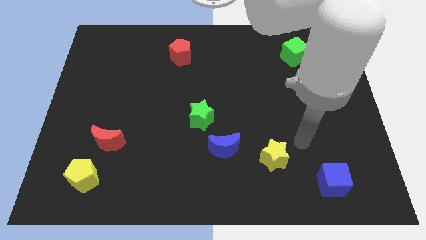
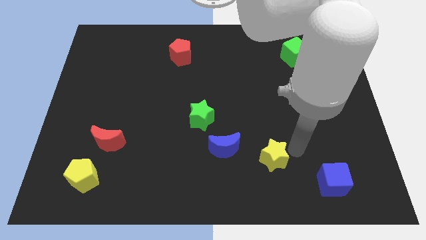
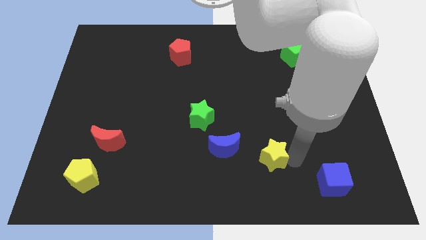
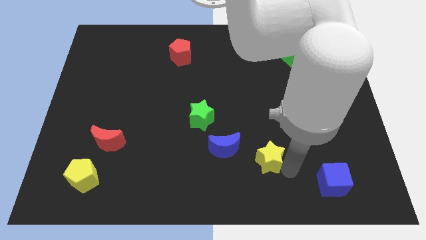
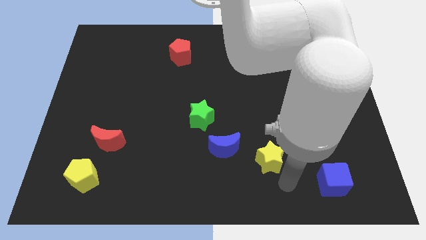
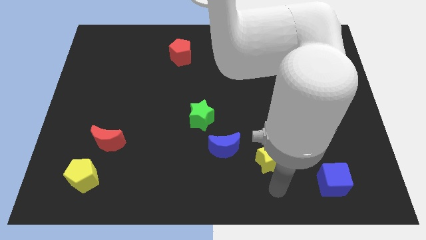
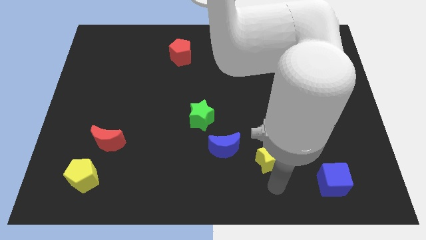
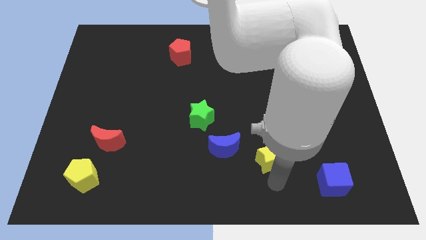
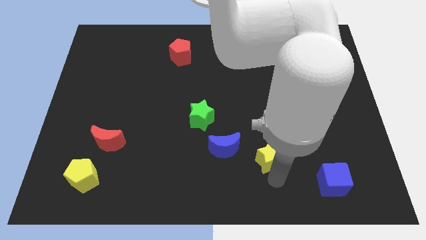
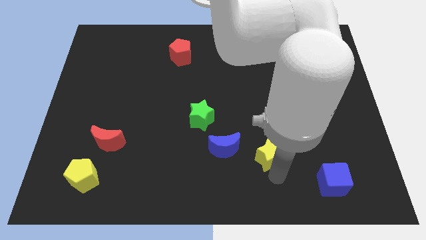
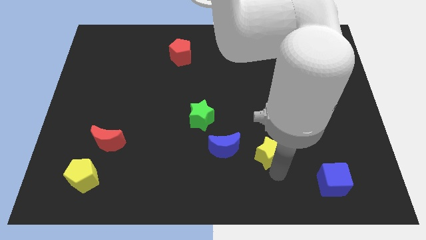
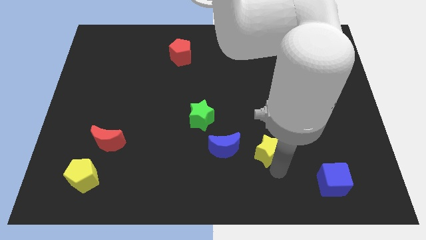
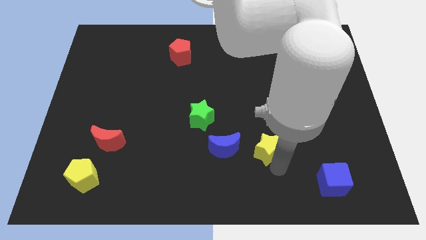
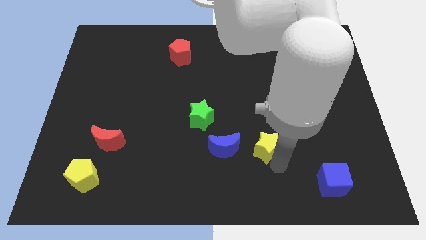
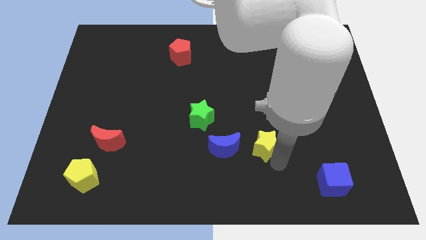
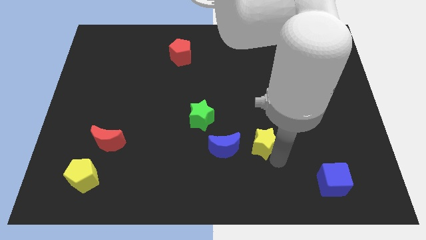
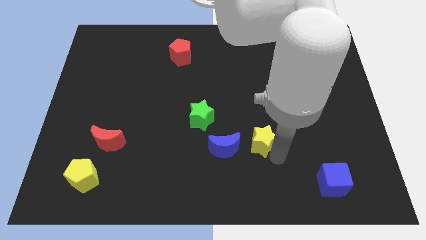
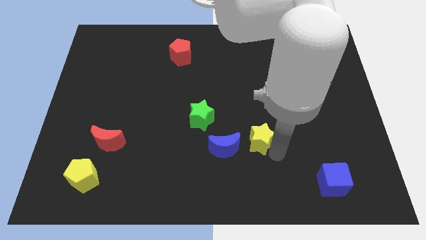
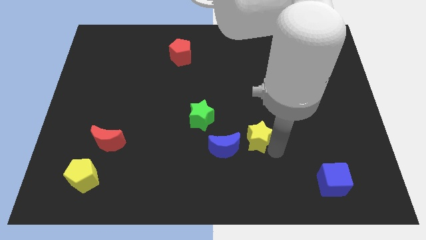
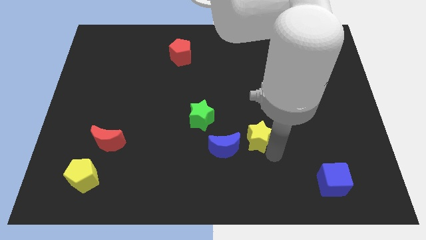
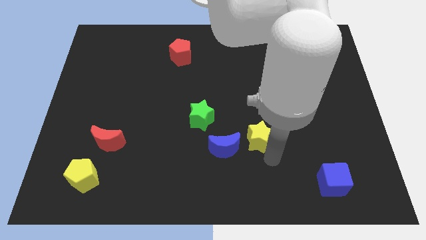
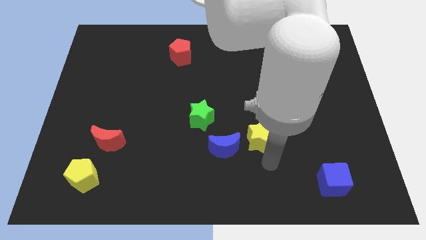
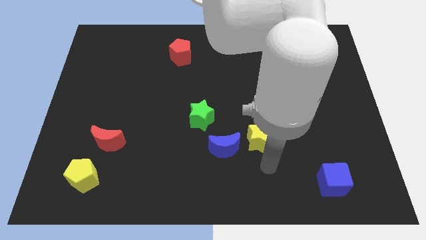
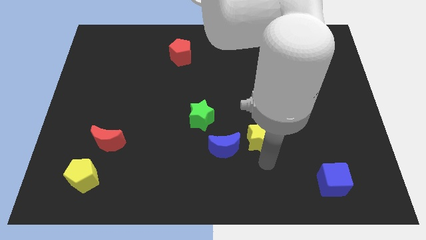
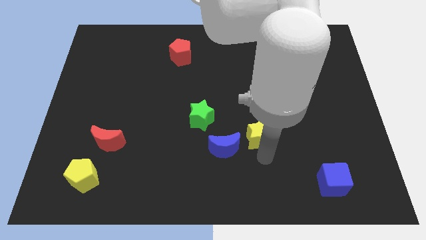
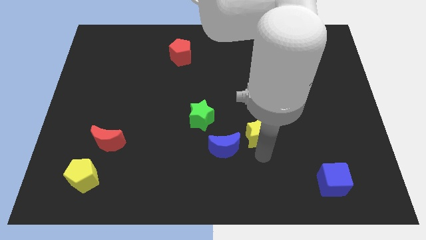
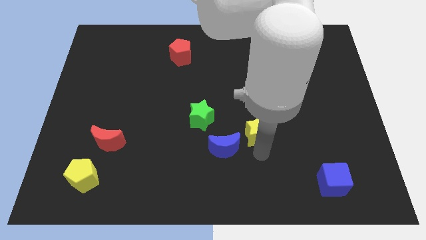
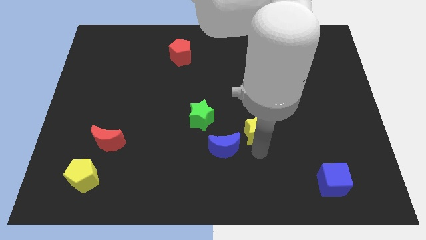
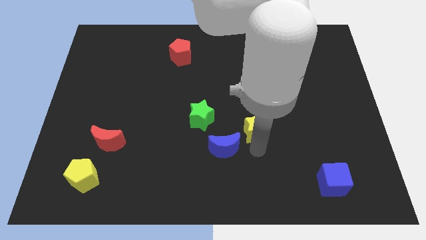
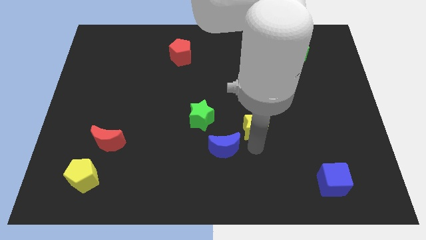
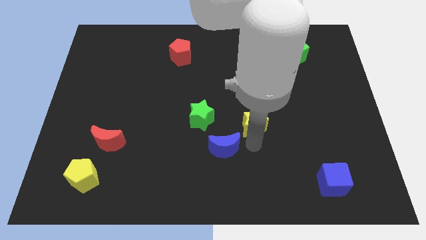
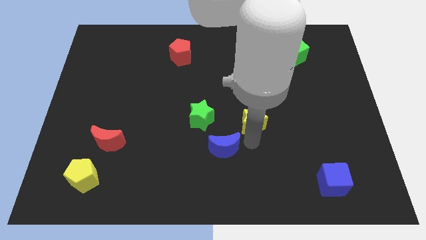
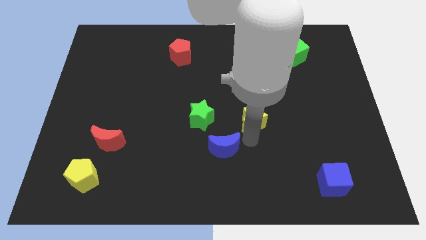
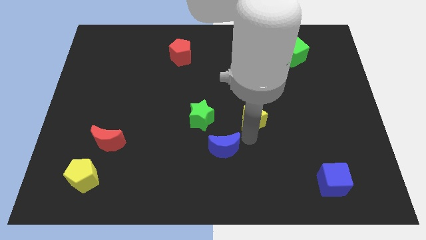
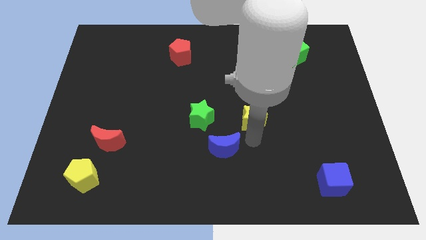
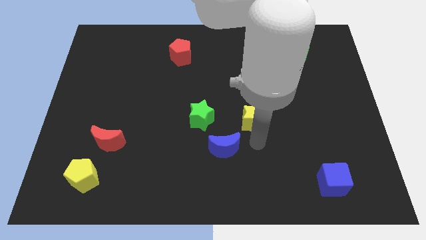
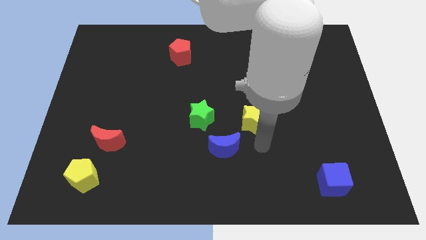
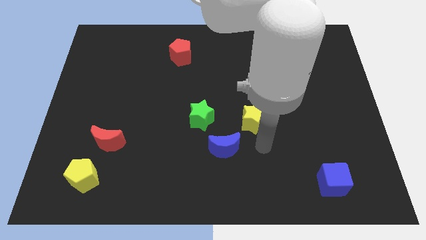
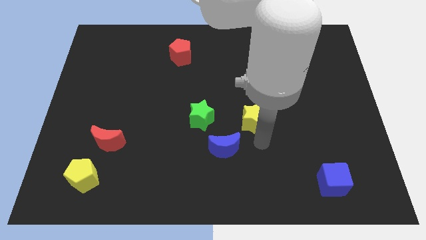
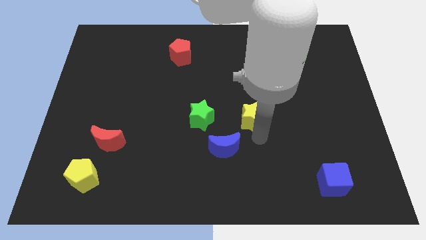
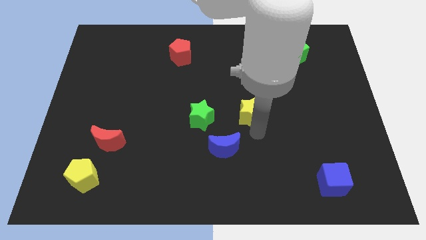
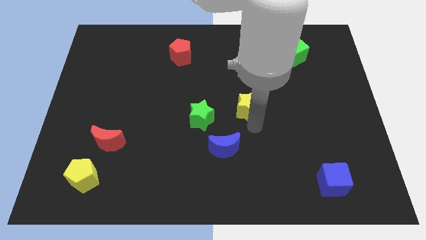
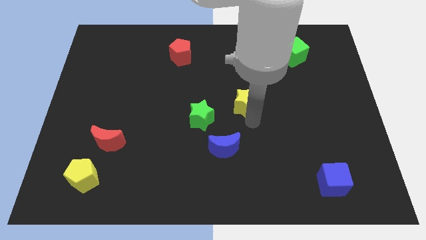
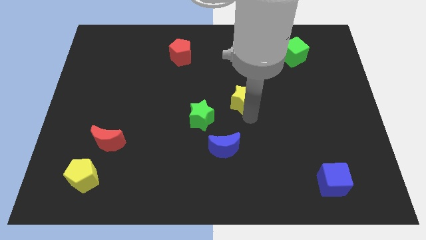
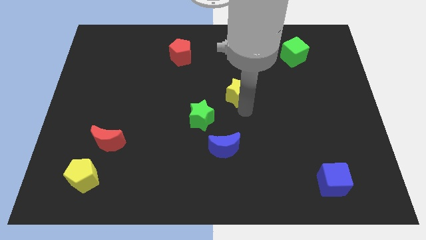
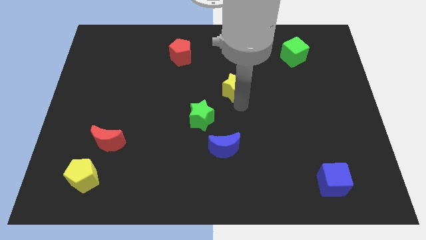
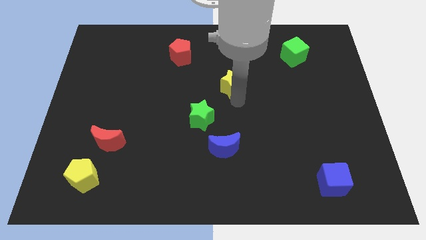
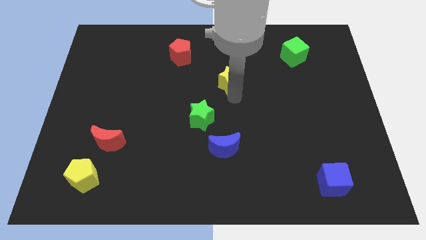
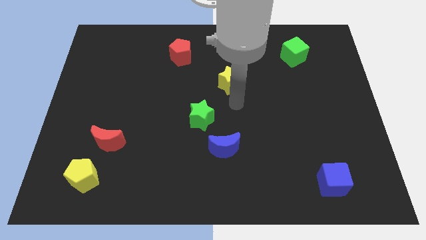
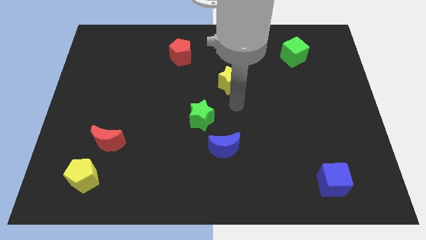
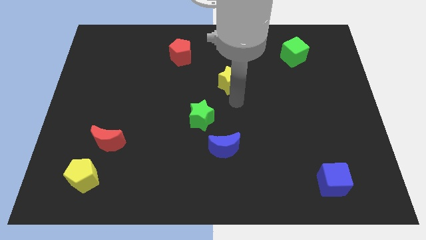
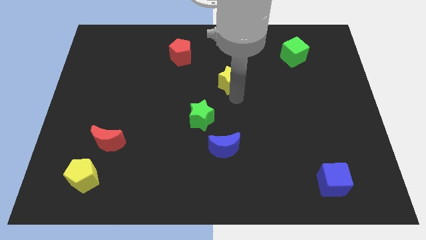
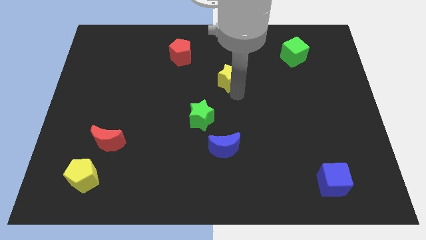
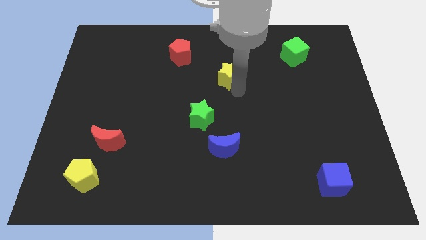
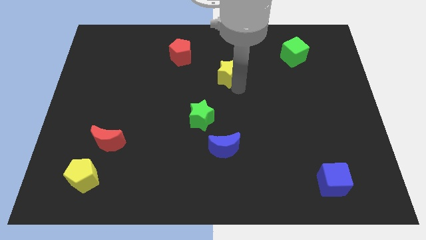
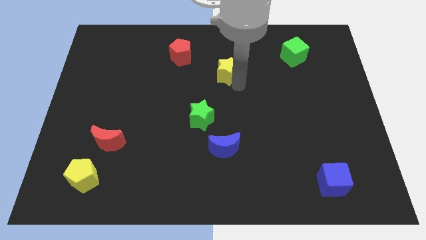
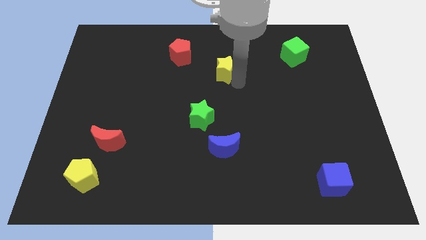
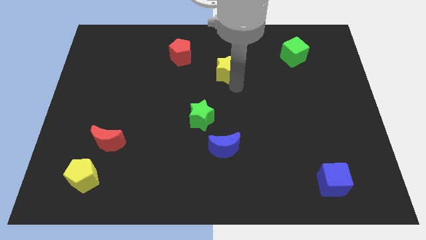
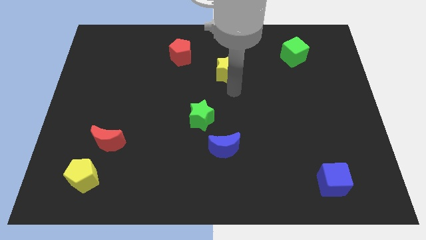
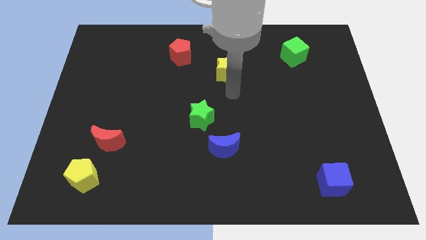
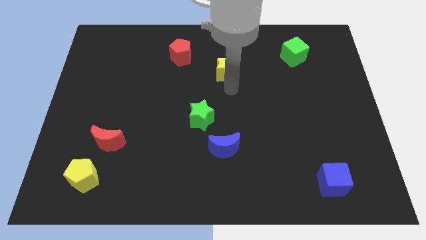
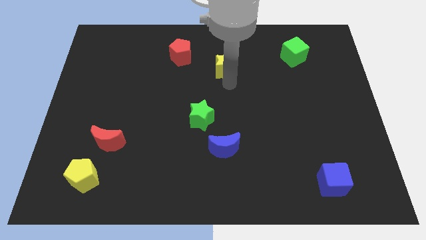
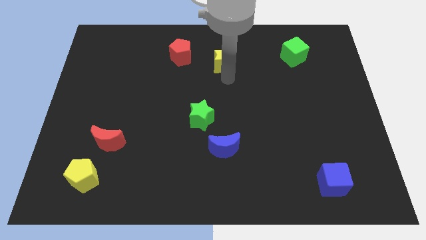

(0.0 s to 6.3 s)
push the yellow star just right of the red pentagon
